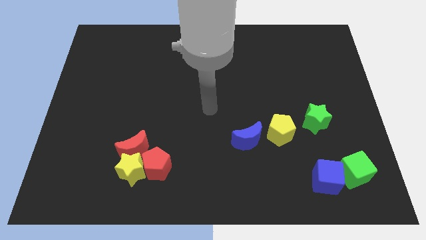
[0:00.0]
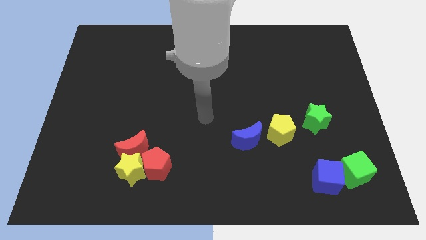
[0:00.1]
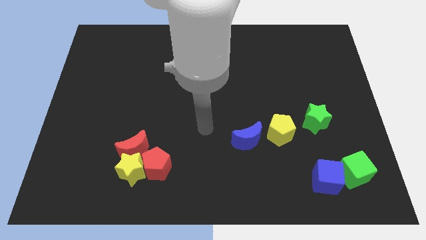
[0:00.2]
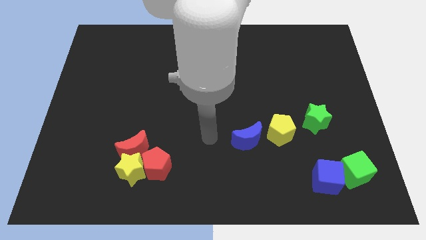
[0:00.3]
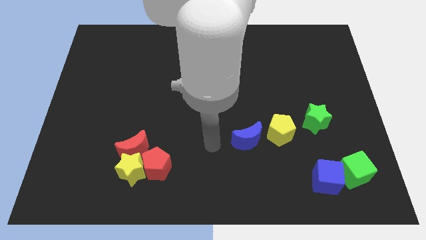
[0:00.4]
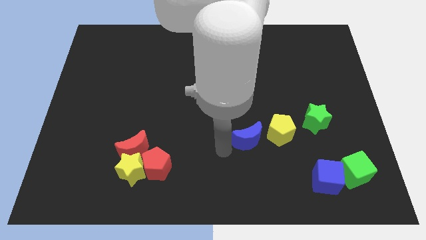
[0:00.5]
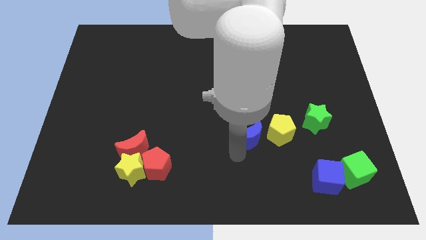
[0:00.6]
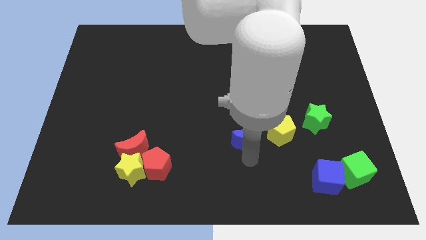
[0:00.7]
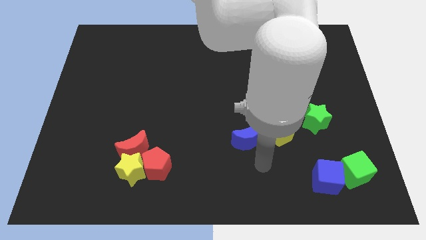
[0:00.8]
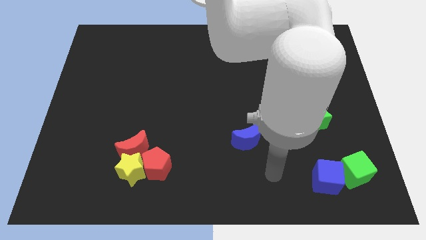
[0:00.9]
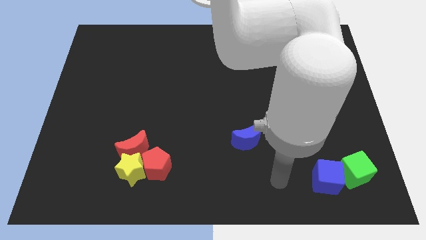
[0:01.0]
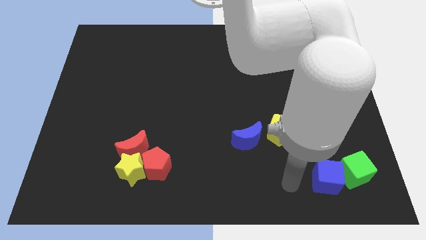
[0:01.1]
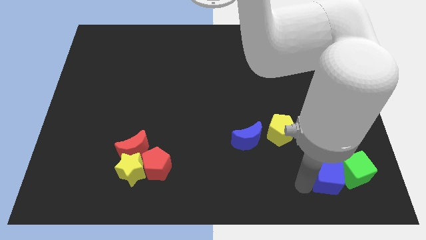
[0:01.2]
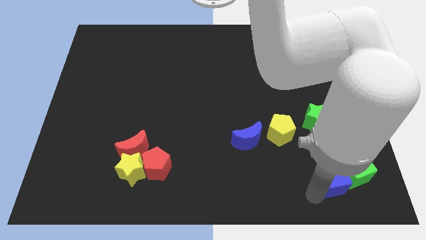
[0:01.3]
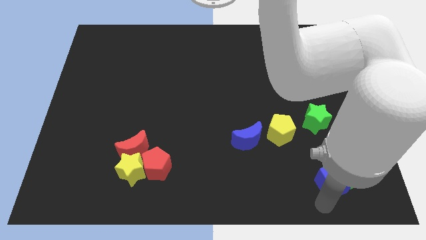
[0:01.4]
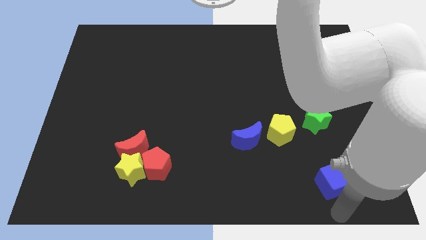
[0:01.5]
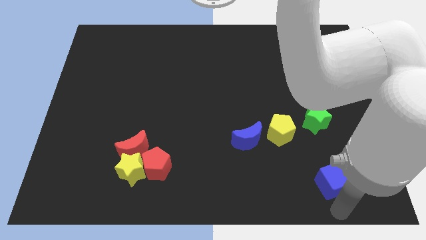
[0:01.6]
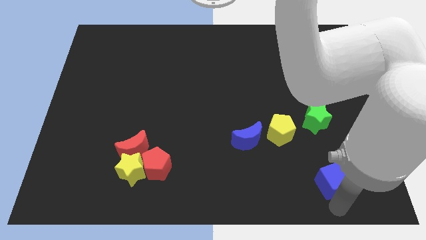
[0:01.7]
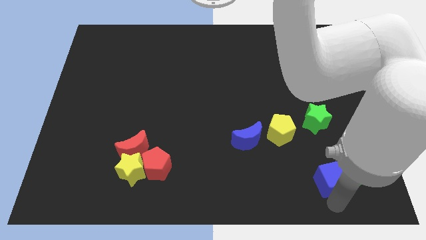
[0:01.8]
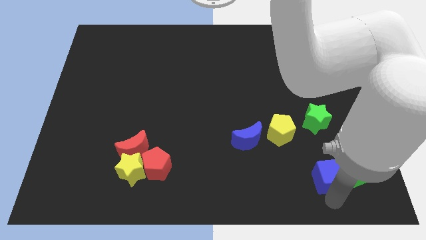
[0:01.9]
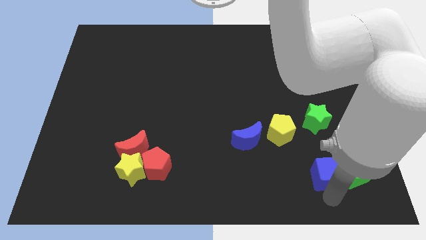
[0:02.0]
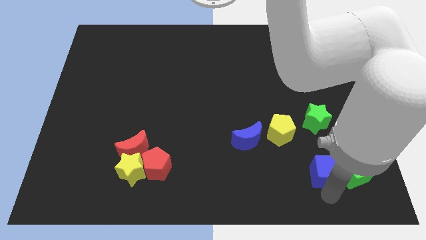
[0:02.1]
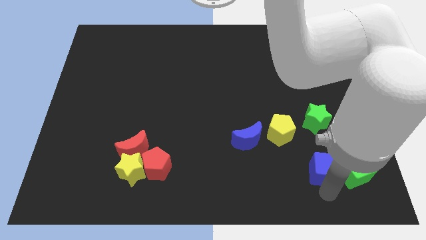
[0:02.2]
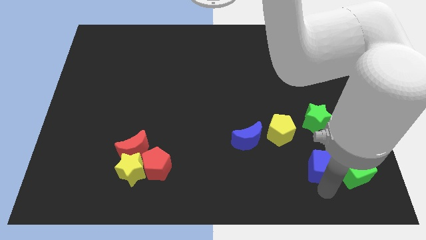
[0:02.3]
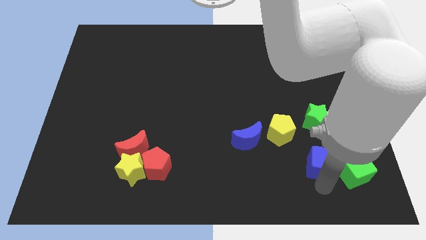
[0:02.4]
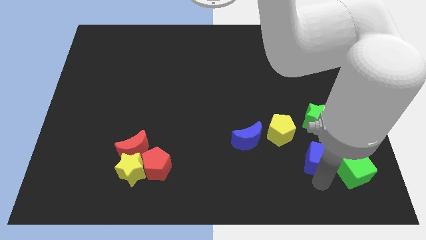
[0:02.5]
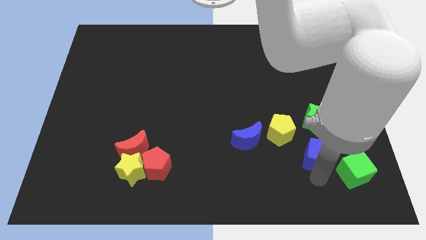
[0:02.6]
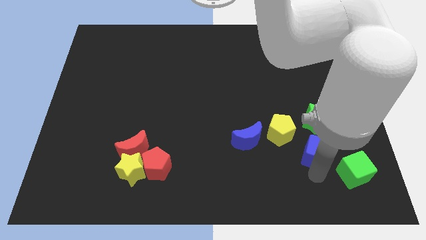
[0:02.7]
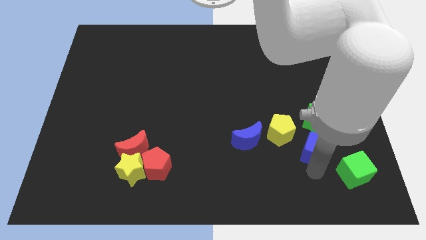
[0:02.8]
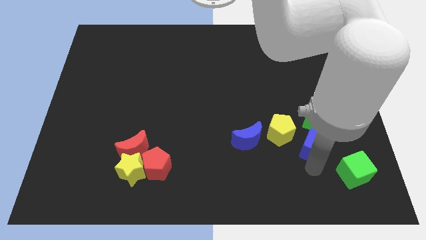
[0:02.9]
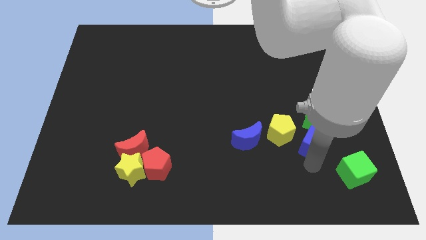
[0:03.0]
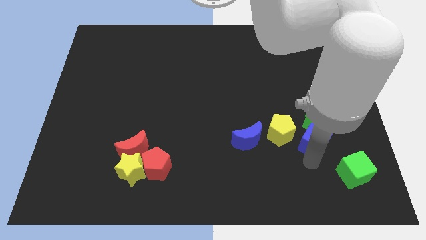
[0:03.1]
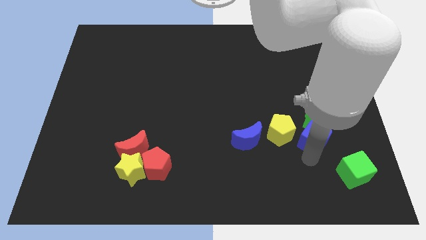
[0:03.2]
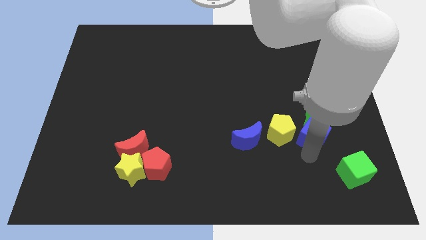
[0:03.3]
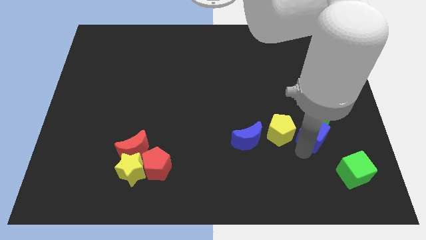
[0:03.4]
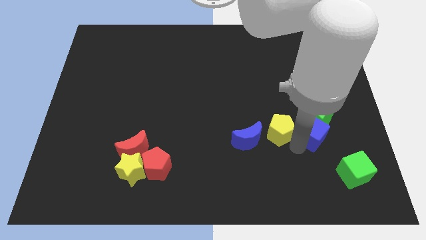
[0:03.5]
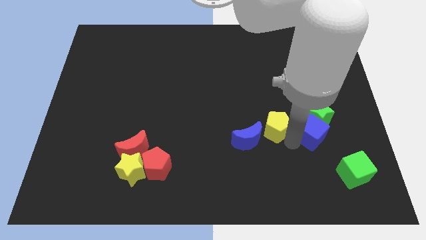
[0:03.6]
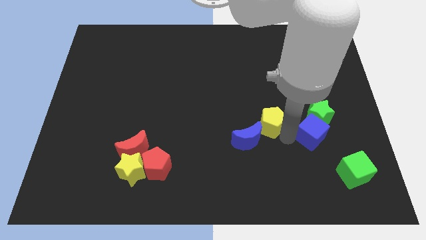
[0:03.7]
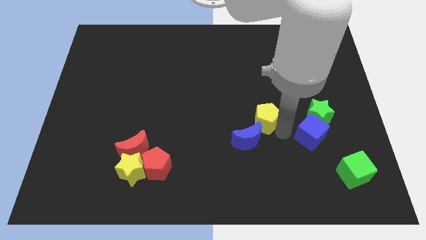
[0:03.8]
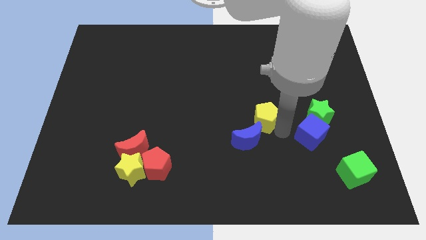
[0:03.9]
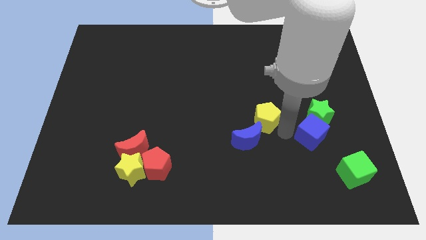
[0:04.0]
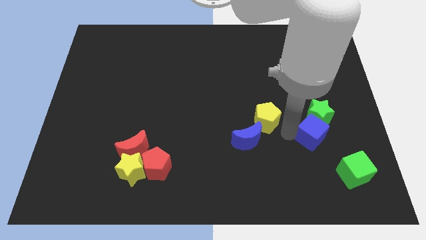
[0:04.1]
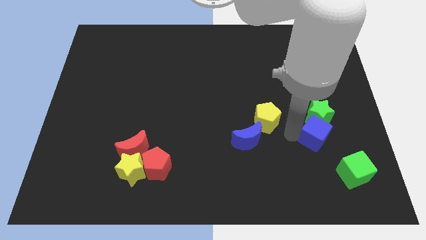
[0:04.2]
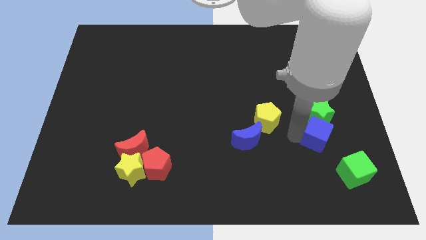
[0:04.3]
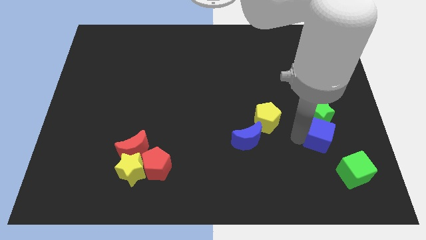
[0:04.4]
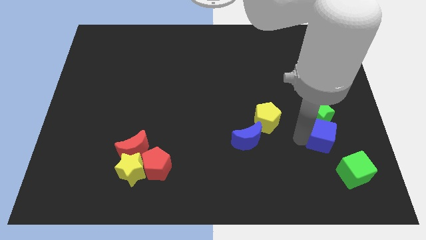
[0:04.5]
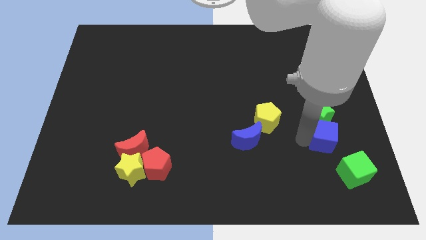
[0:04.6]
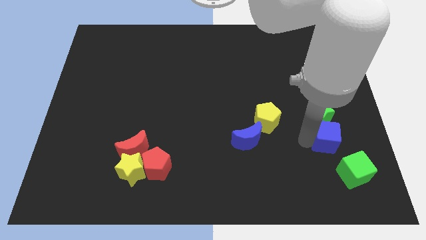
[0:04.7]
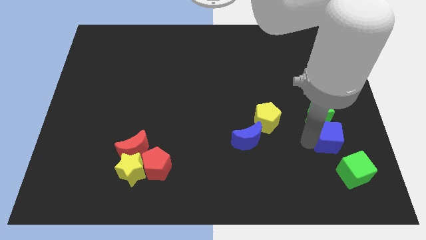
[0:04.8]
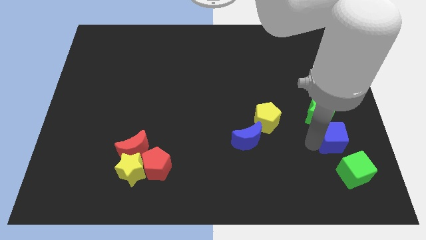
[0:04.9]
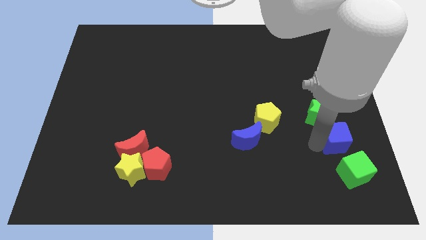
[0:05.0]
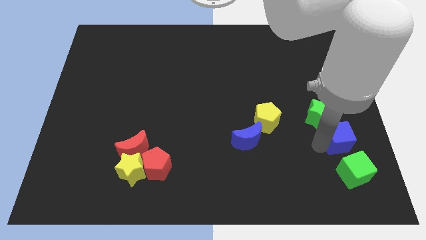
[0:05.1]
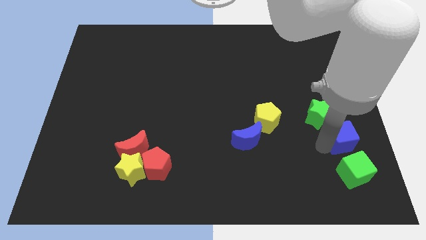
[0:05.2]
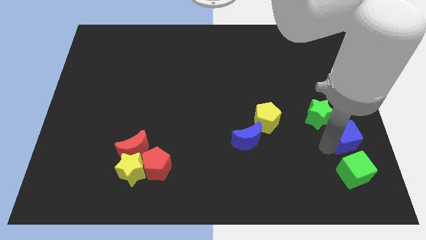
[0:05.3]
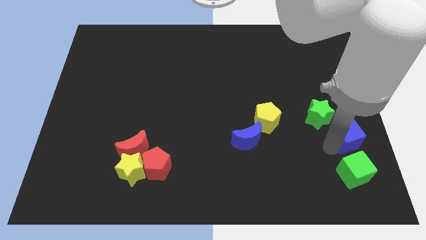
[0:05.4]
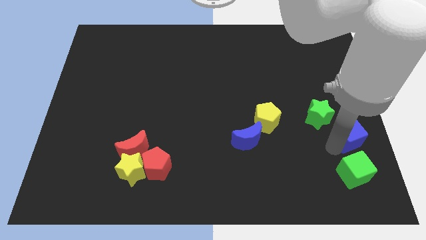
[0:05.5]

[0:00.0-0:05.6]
put the blue cube to the right side
